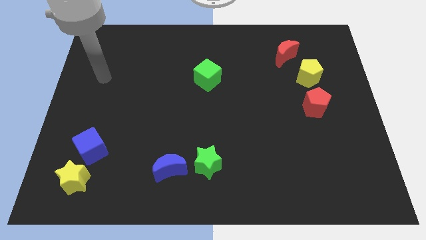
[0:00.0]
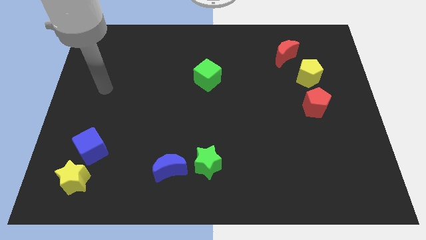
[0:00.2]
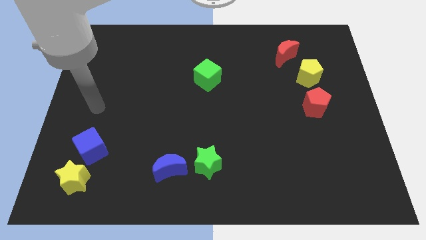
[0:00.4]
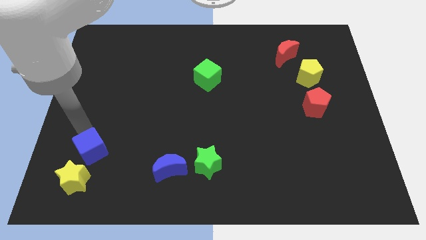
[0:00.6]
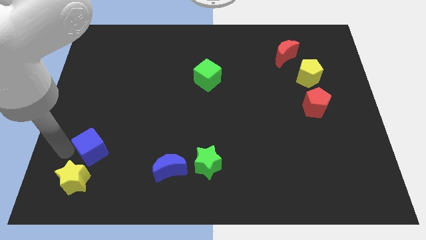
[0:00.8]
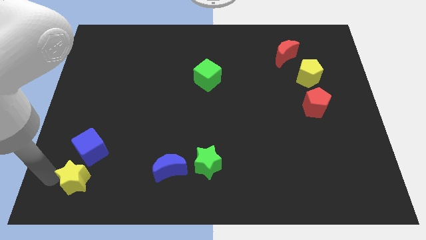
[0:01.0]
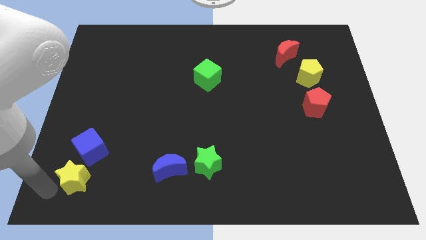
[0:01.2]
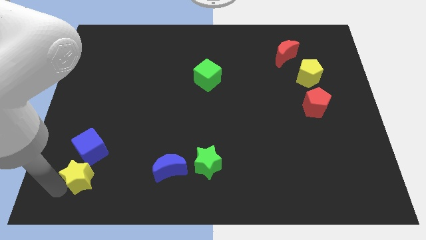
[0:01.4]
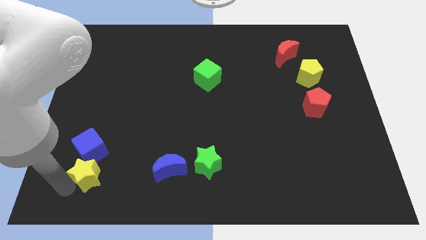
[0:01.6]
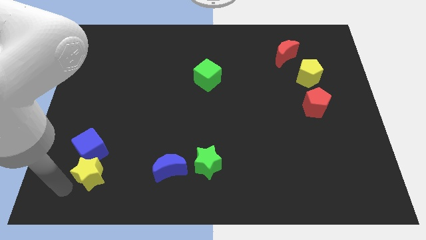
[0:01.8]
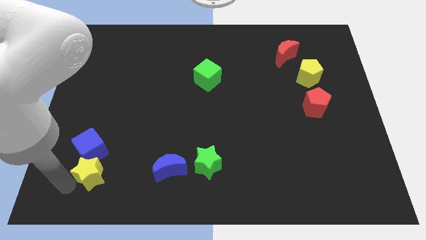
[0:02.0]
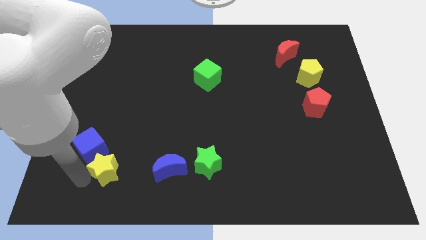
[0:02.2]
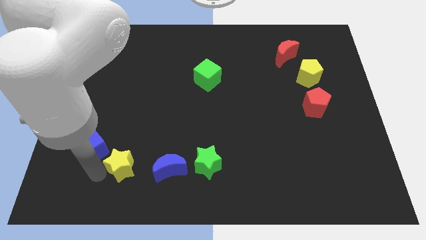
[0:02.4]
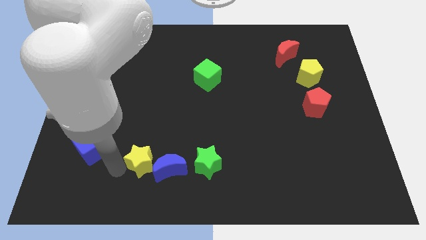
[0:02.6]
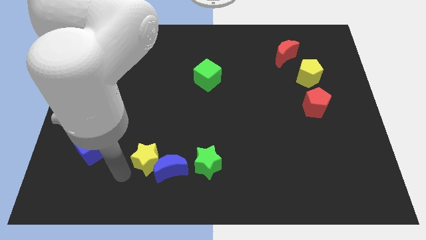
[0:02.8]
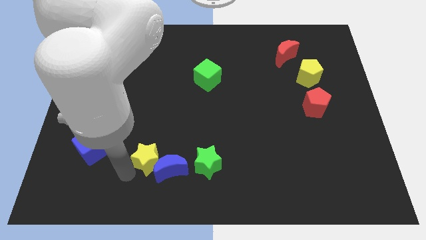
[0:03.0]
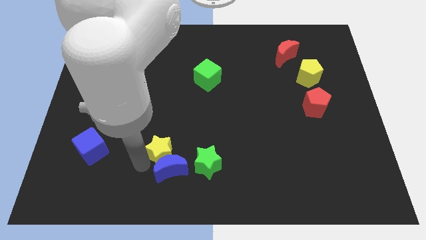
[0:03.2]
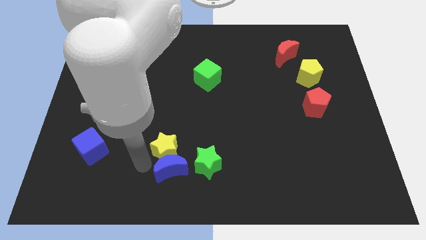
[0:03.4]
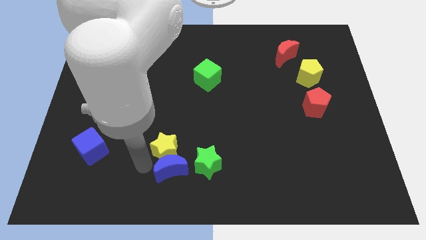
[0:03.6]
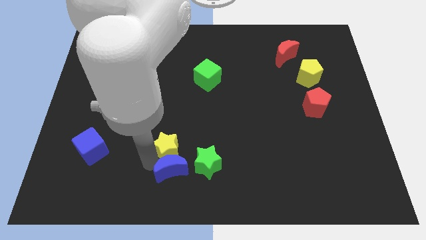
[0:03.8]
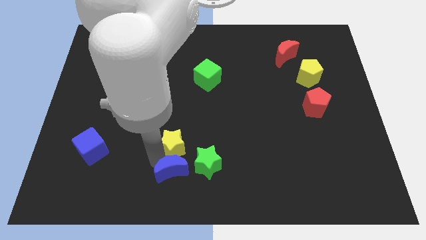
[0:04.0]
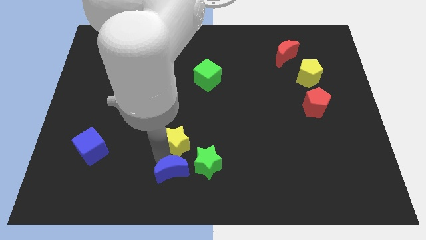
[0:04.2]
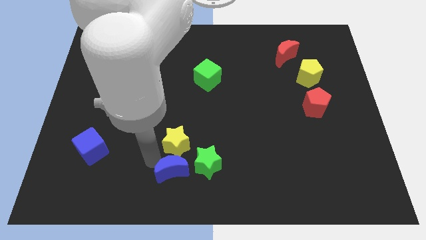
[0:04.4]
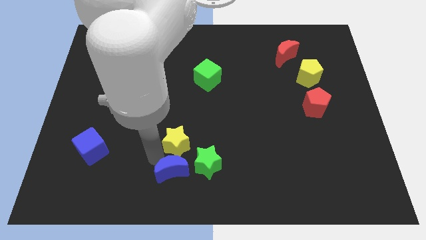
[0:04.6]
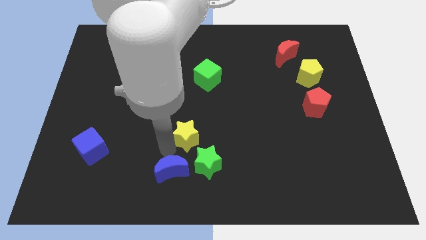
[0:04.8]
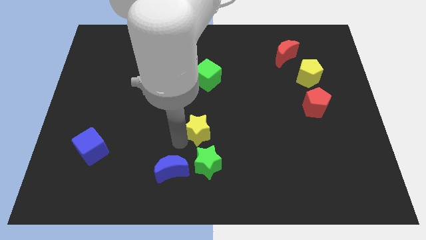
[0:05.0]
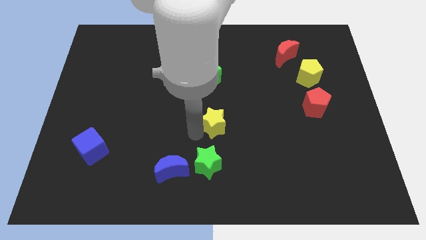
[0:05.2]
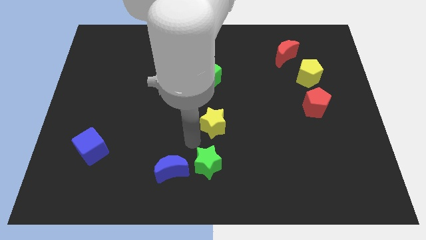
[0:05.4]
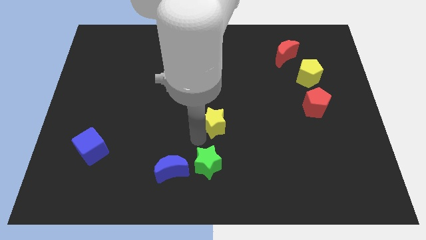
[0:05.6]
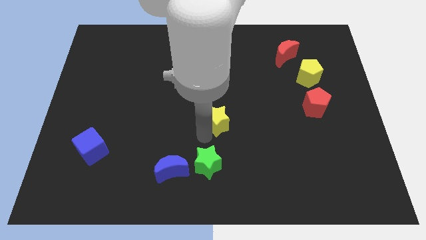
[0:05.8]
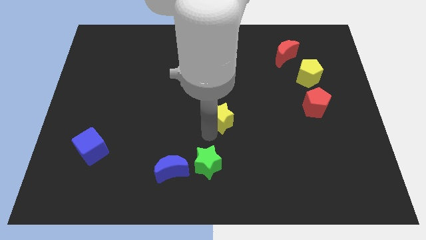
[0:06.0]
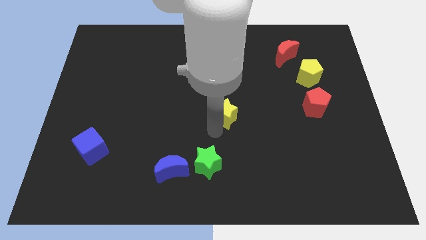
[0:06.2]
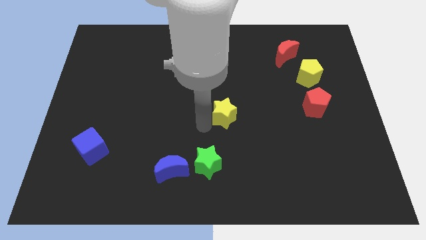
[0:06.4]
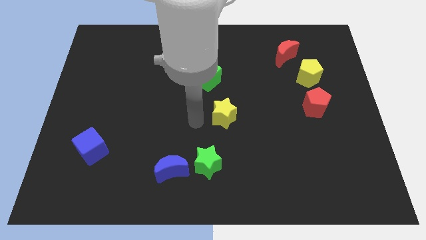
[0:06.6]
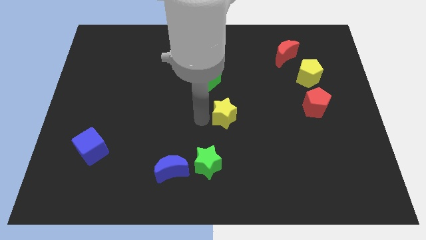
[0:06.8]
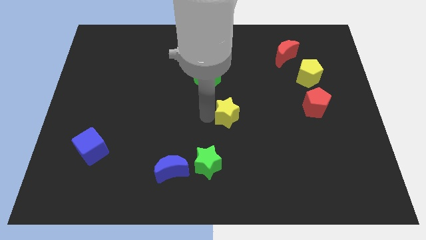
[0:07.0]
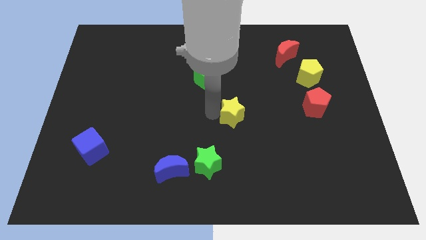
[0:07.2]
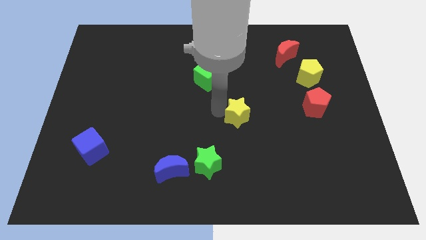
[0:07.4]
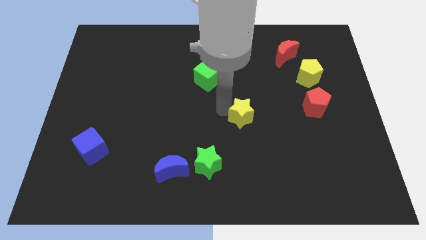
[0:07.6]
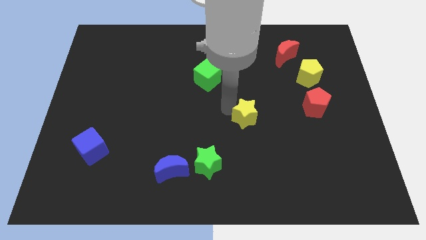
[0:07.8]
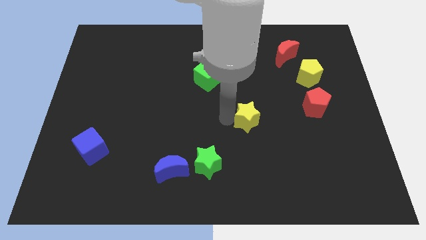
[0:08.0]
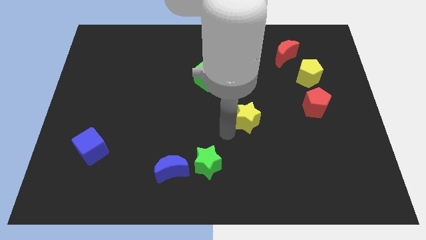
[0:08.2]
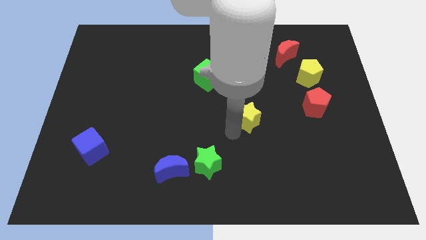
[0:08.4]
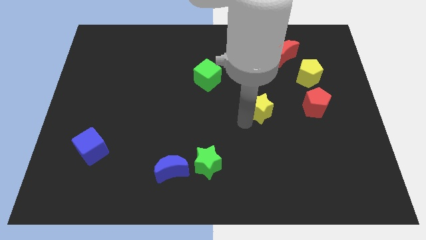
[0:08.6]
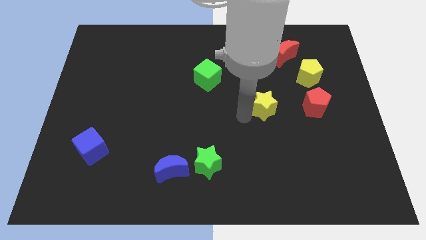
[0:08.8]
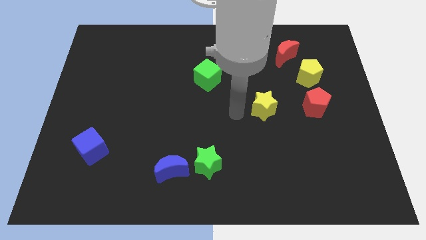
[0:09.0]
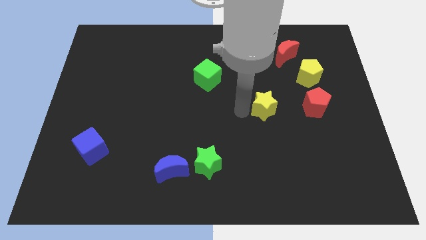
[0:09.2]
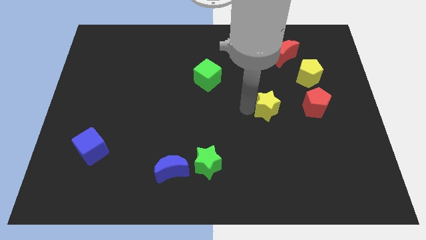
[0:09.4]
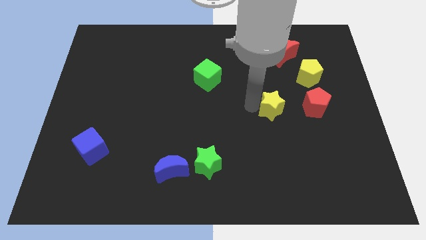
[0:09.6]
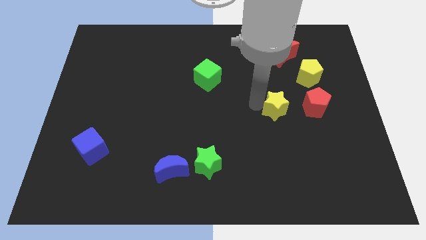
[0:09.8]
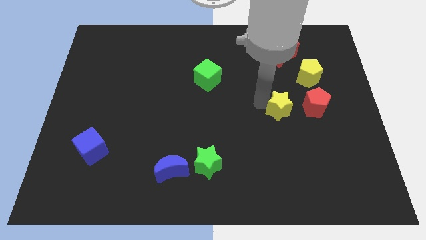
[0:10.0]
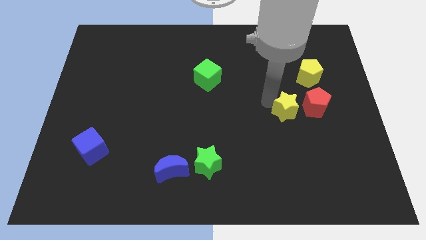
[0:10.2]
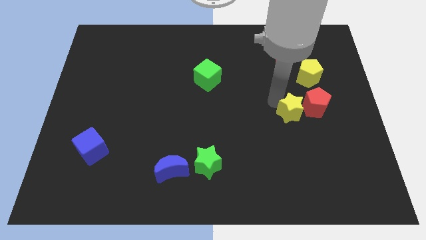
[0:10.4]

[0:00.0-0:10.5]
push the yellow star close to the red pentagon

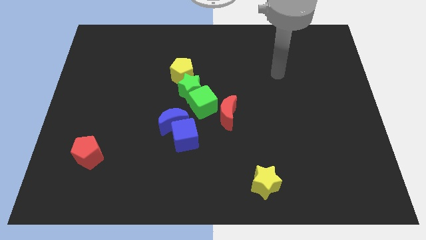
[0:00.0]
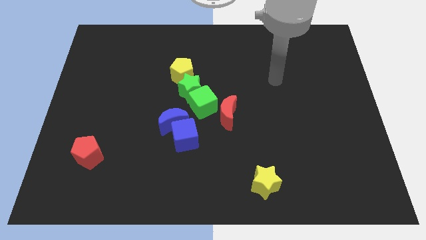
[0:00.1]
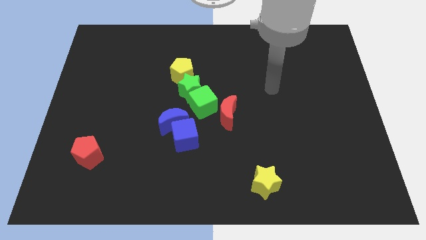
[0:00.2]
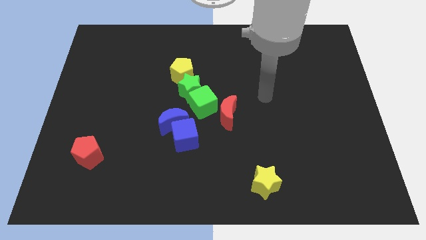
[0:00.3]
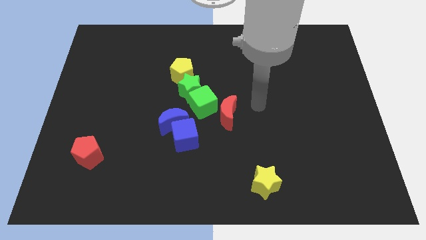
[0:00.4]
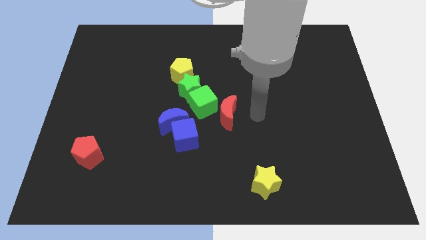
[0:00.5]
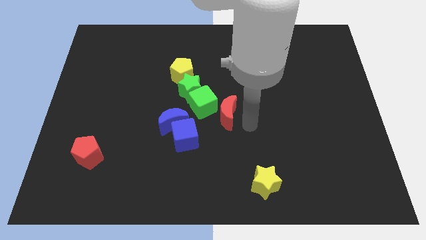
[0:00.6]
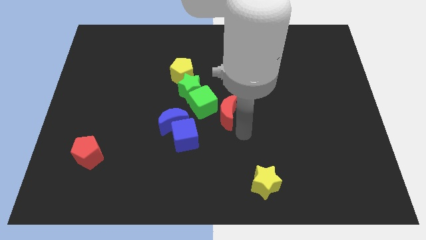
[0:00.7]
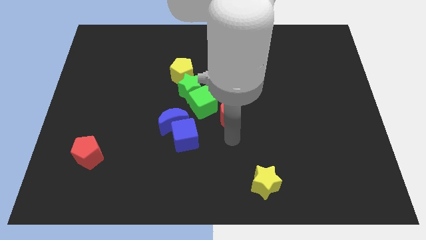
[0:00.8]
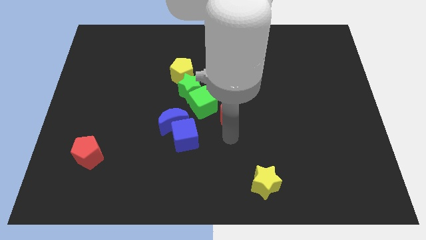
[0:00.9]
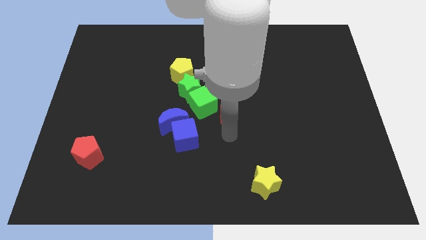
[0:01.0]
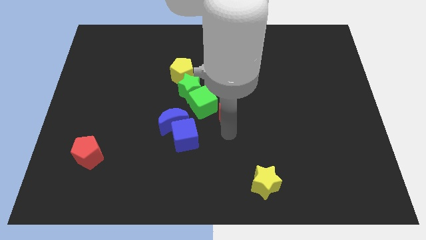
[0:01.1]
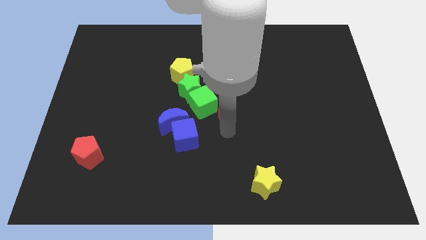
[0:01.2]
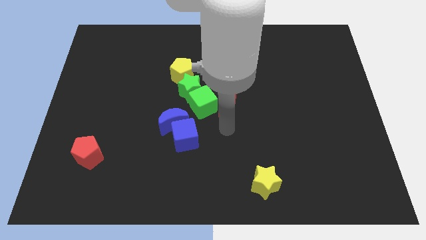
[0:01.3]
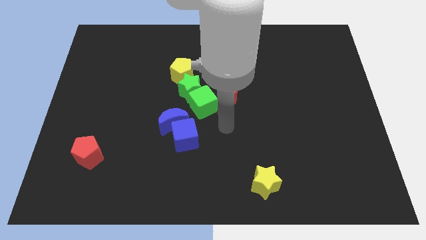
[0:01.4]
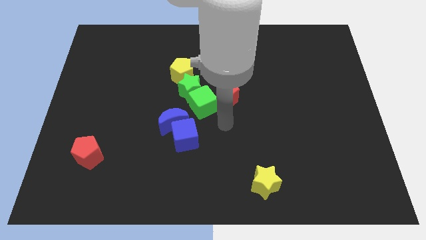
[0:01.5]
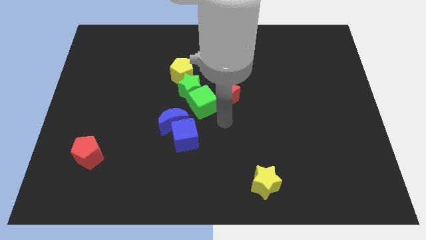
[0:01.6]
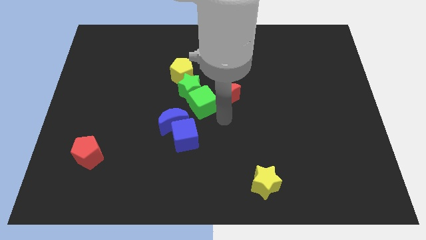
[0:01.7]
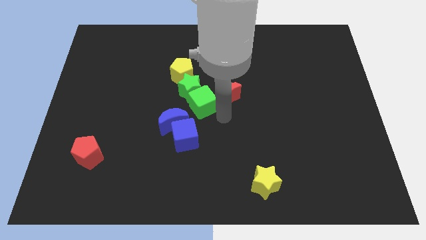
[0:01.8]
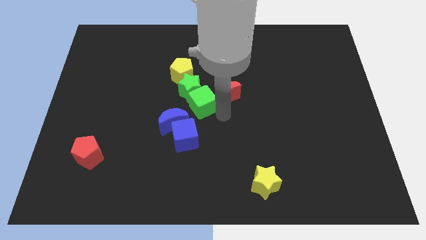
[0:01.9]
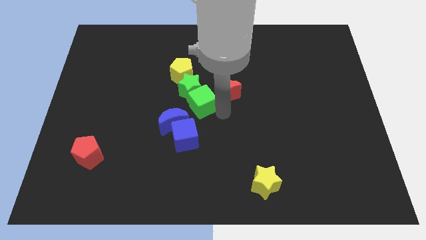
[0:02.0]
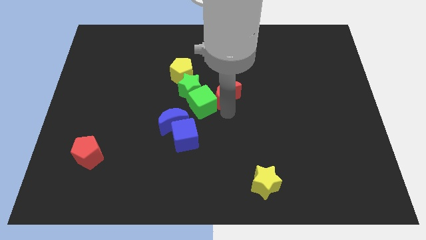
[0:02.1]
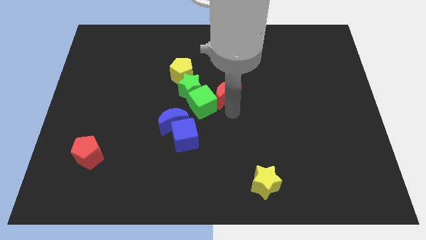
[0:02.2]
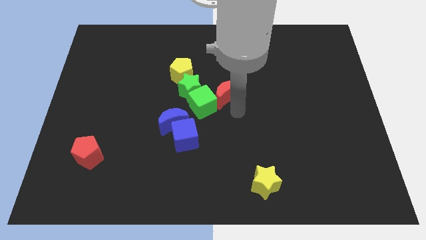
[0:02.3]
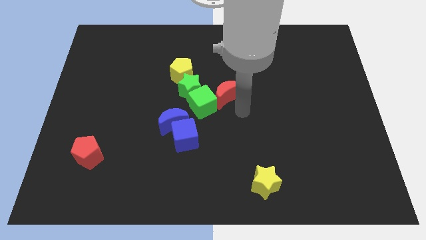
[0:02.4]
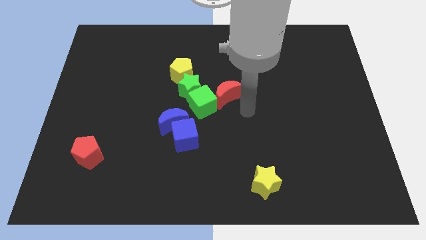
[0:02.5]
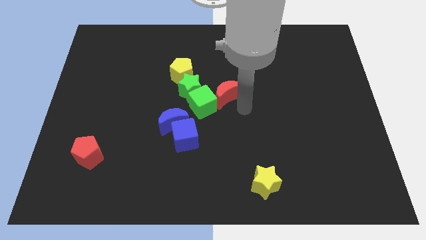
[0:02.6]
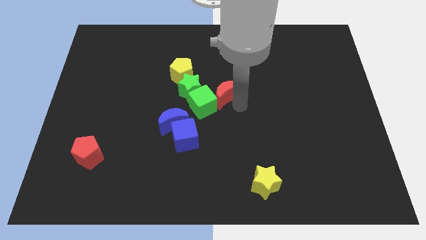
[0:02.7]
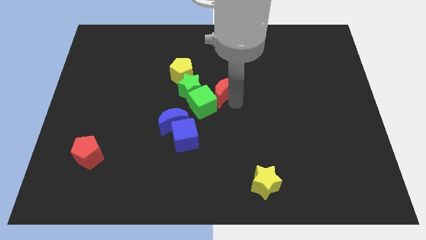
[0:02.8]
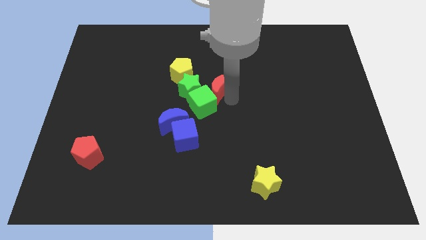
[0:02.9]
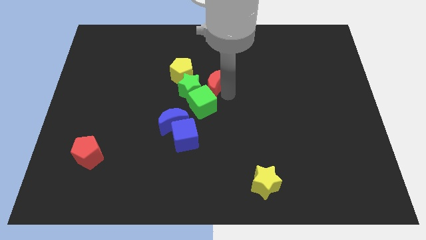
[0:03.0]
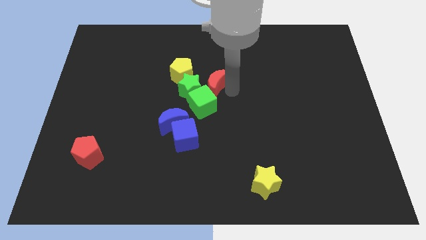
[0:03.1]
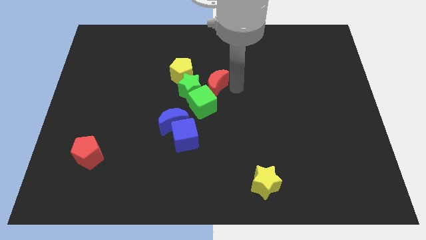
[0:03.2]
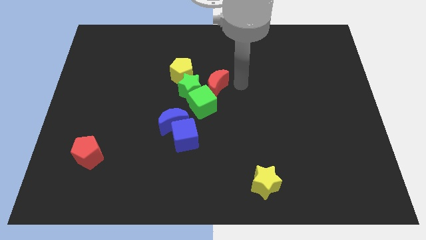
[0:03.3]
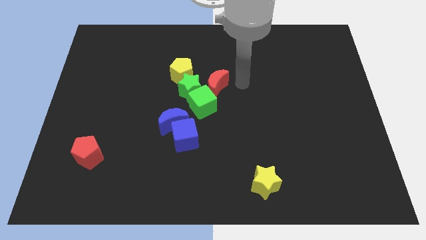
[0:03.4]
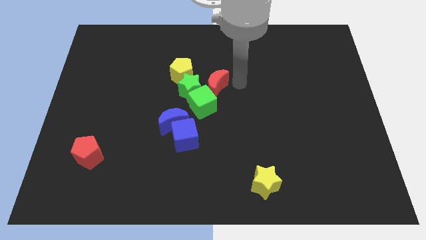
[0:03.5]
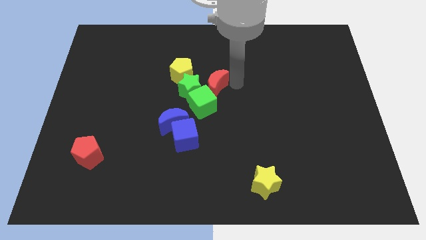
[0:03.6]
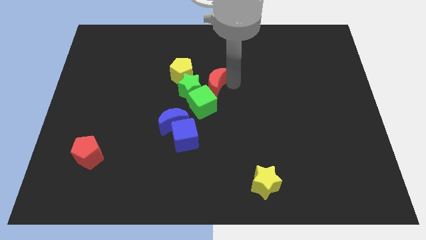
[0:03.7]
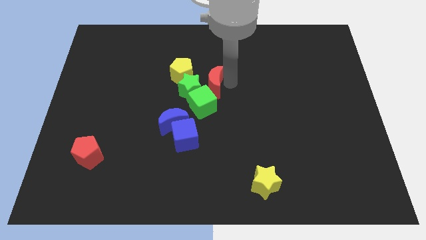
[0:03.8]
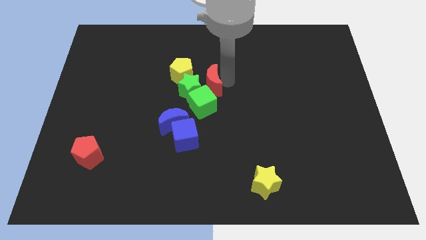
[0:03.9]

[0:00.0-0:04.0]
push the red moon next to the green star
